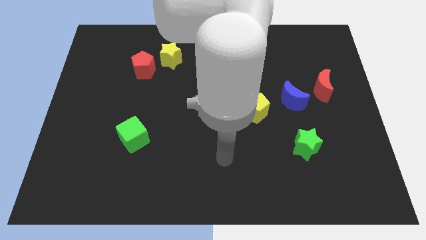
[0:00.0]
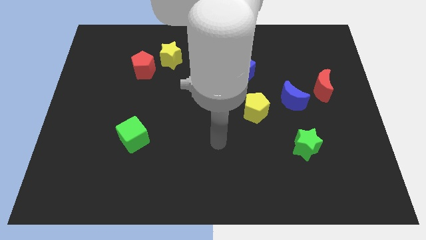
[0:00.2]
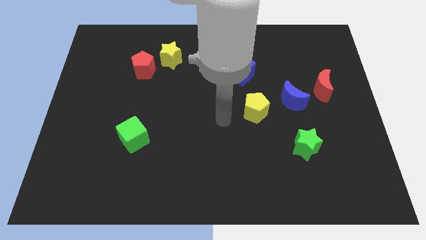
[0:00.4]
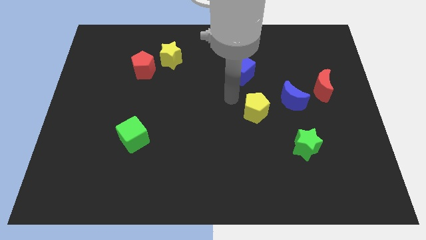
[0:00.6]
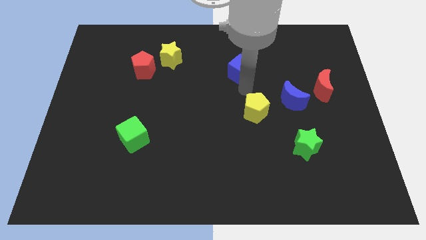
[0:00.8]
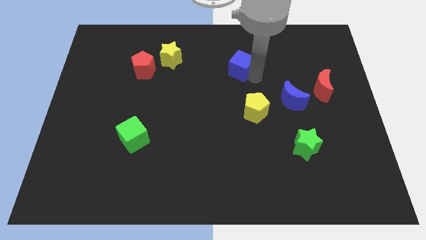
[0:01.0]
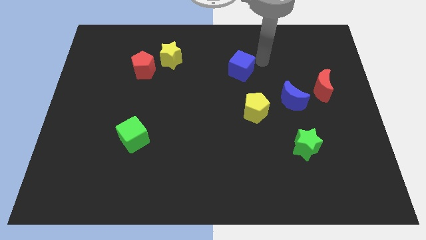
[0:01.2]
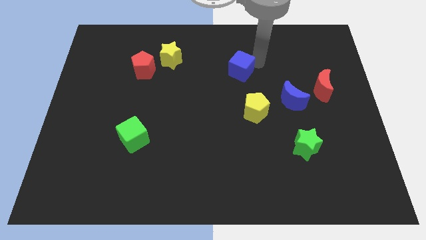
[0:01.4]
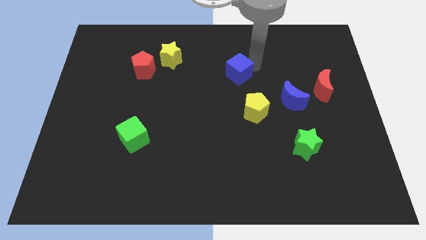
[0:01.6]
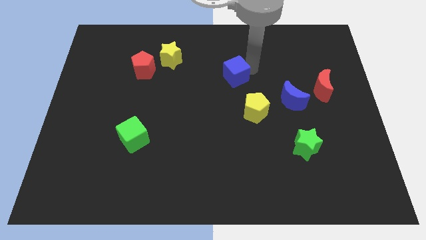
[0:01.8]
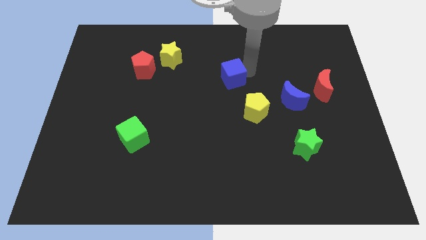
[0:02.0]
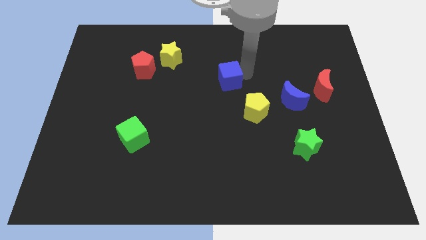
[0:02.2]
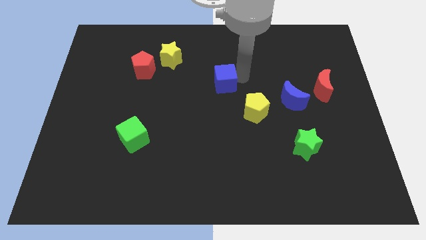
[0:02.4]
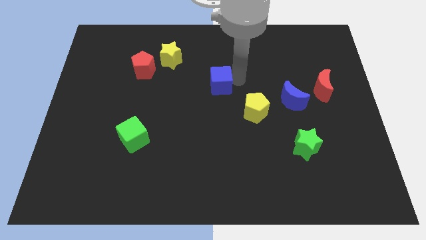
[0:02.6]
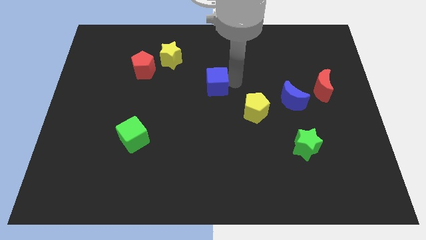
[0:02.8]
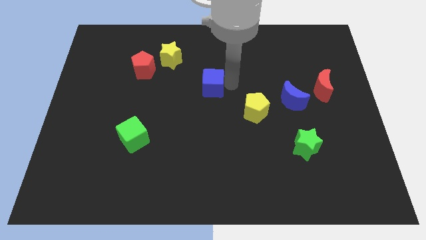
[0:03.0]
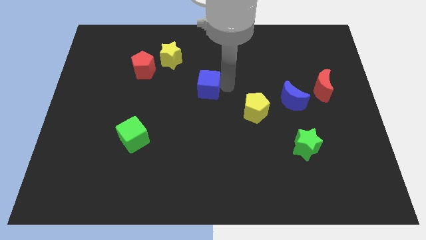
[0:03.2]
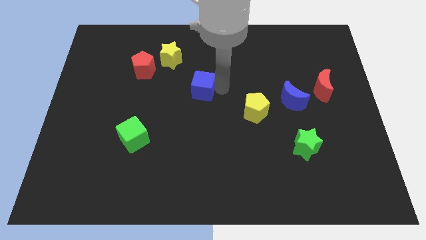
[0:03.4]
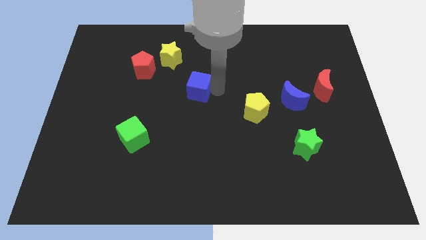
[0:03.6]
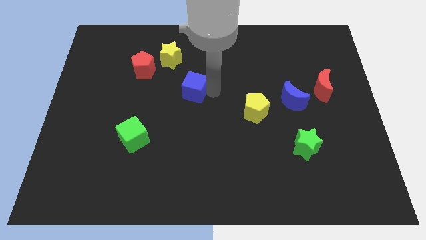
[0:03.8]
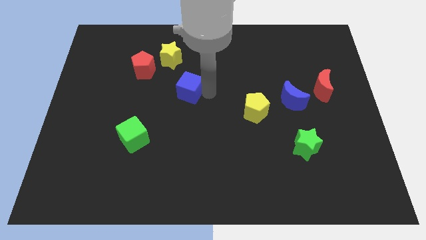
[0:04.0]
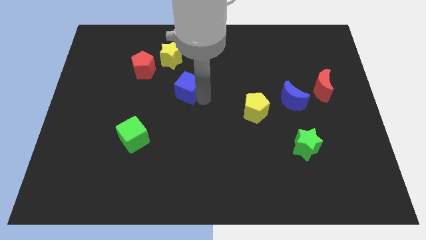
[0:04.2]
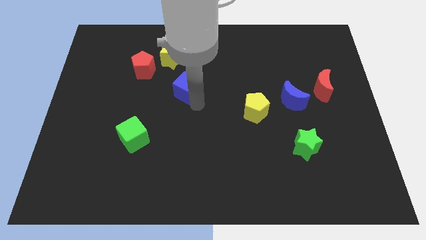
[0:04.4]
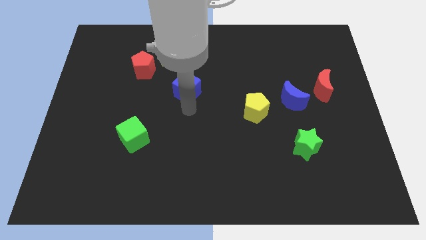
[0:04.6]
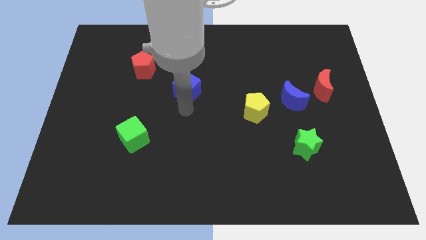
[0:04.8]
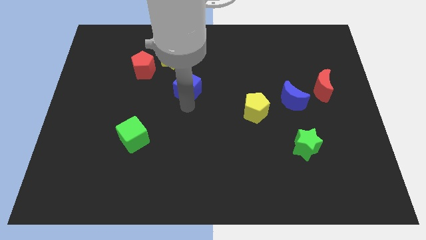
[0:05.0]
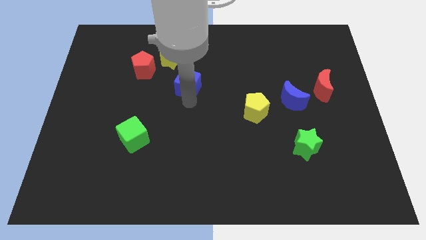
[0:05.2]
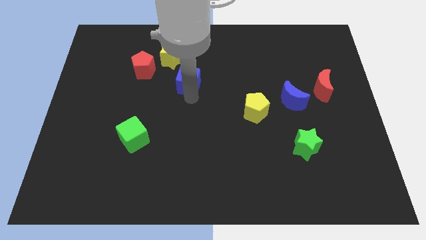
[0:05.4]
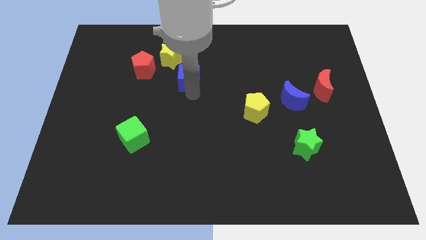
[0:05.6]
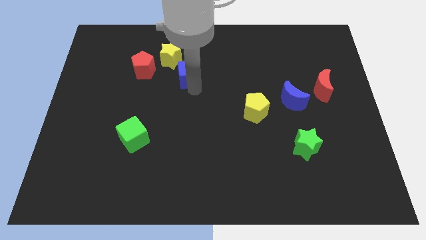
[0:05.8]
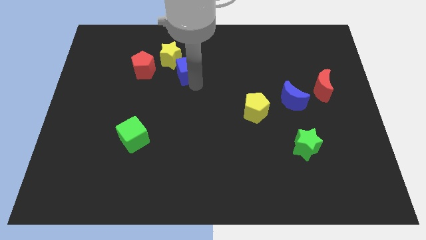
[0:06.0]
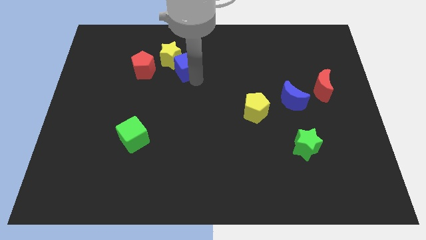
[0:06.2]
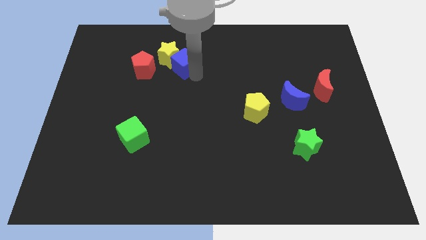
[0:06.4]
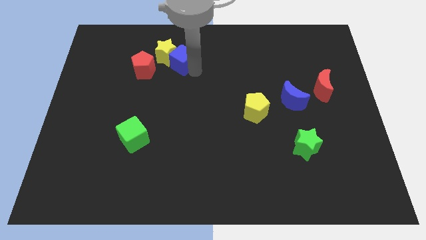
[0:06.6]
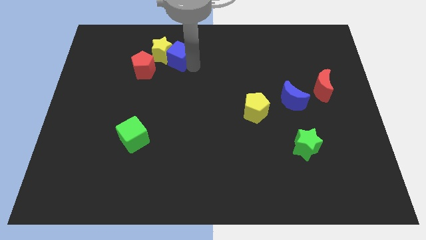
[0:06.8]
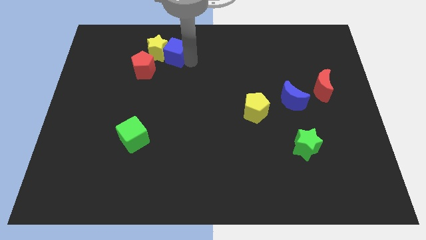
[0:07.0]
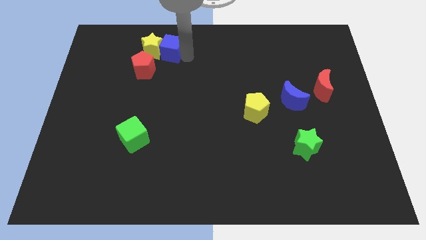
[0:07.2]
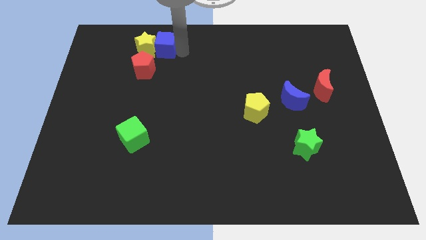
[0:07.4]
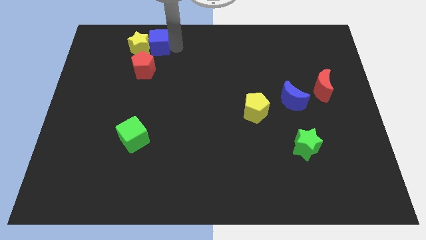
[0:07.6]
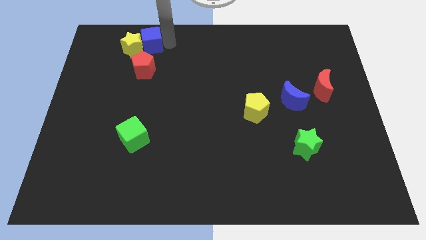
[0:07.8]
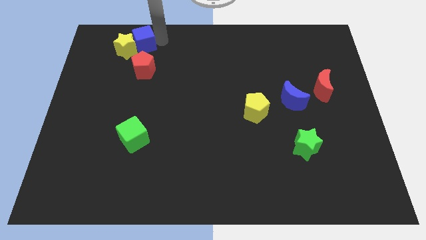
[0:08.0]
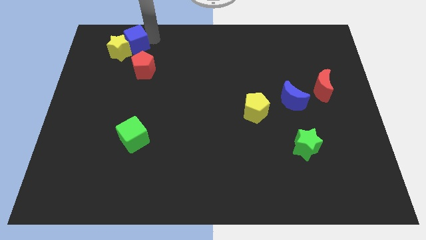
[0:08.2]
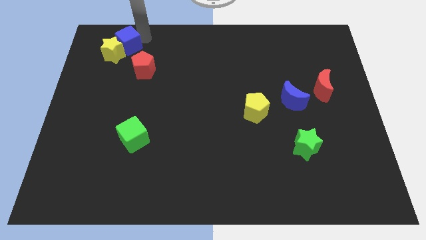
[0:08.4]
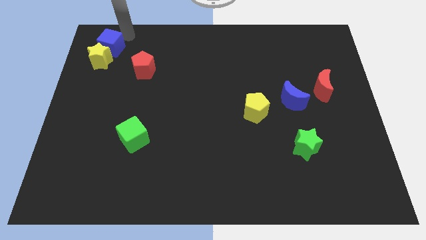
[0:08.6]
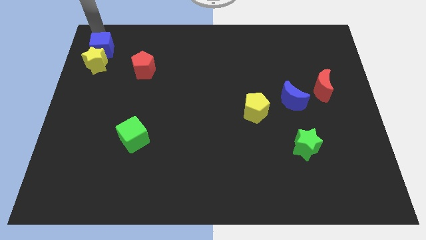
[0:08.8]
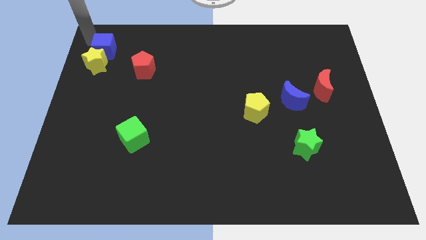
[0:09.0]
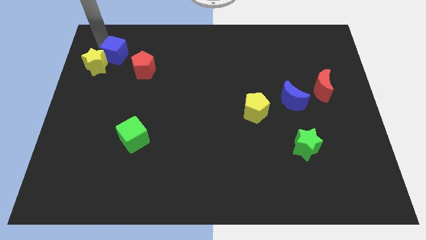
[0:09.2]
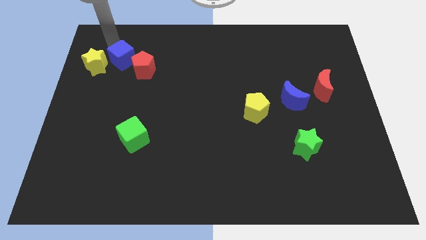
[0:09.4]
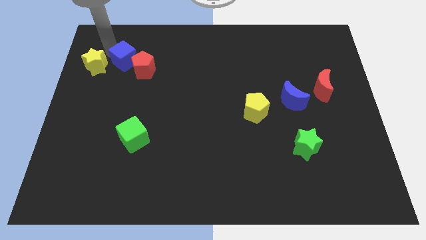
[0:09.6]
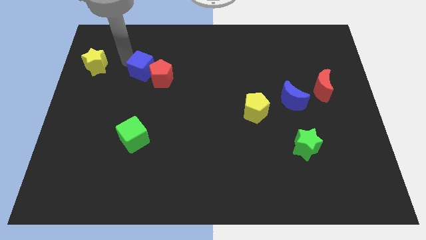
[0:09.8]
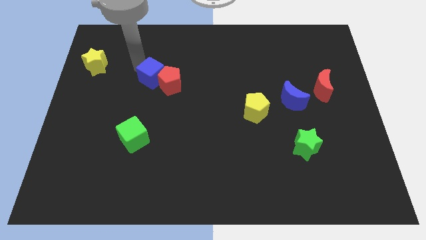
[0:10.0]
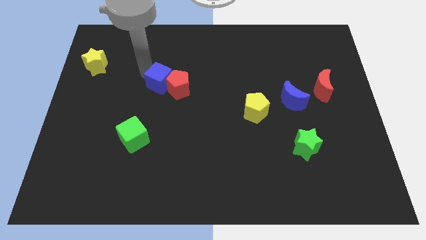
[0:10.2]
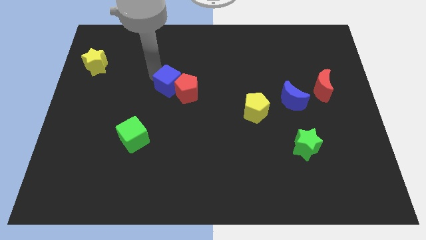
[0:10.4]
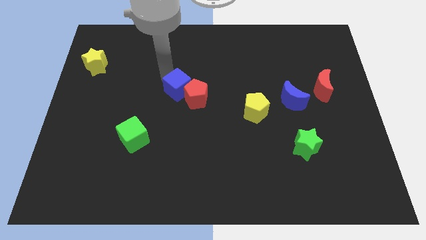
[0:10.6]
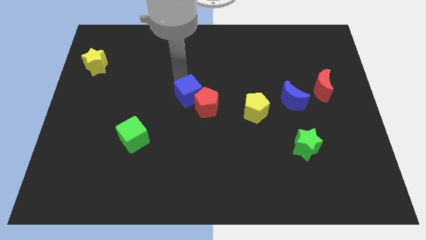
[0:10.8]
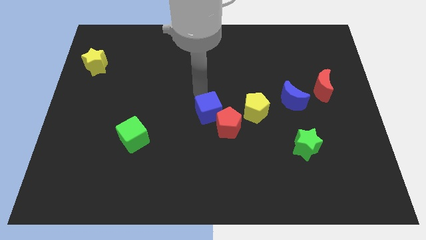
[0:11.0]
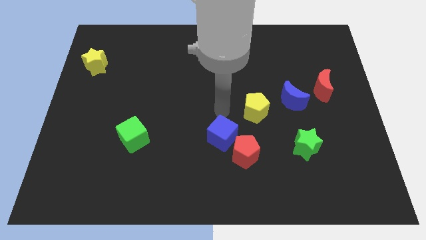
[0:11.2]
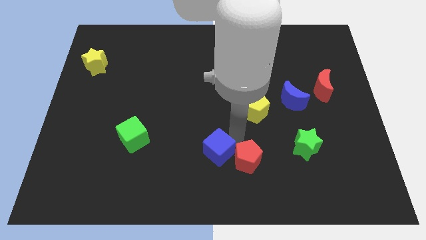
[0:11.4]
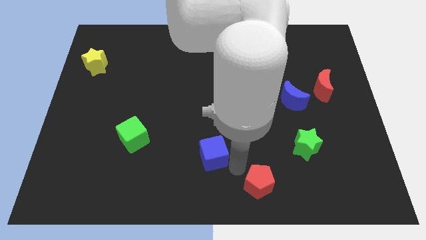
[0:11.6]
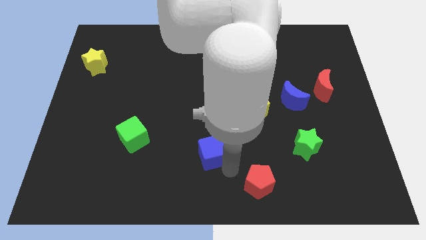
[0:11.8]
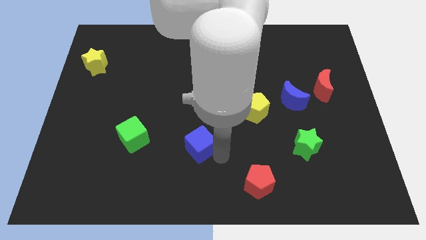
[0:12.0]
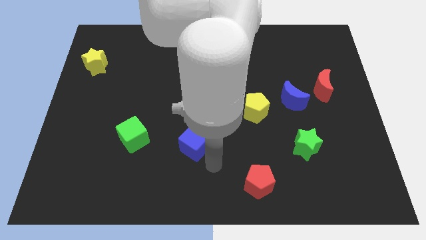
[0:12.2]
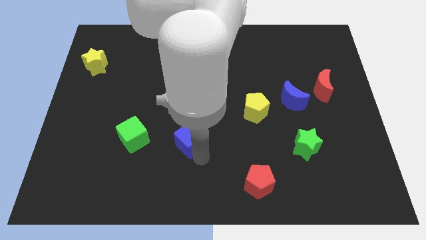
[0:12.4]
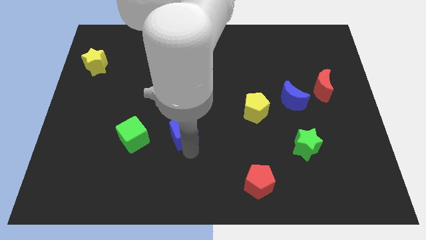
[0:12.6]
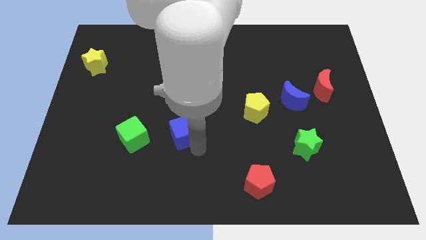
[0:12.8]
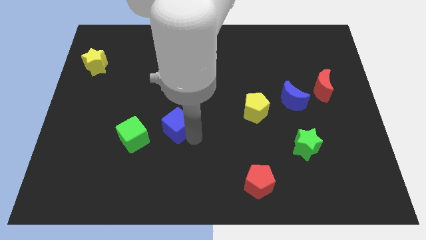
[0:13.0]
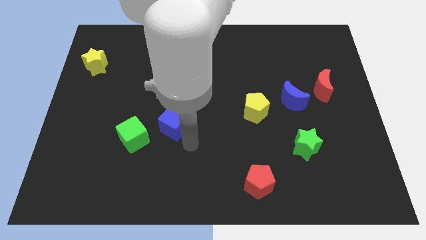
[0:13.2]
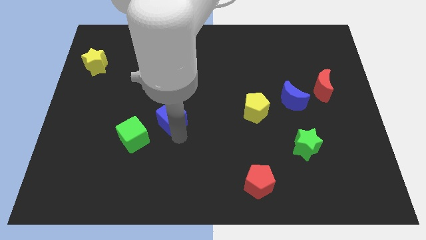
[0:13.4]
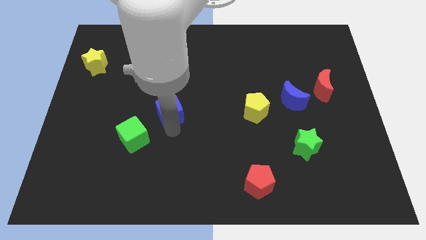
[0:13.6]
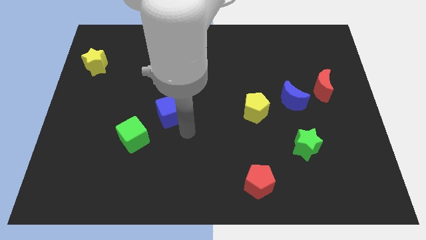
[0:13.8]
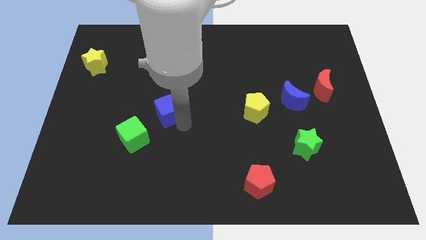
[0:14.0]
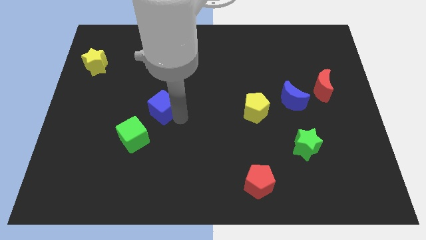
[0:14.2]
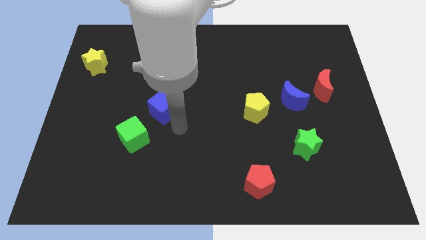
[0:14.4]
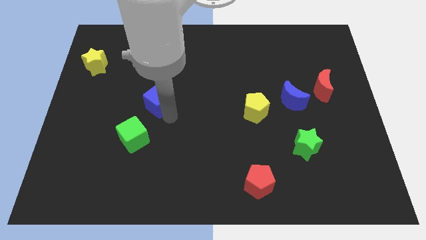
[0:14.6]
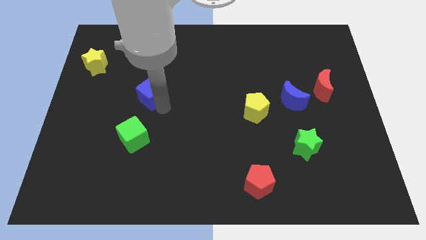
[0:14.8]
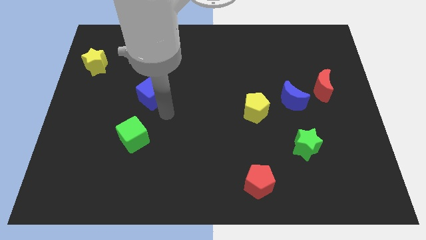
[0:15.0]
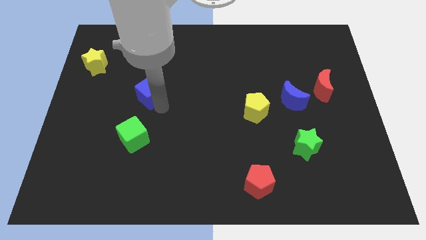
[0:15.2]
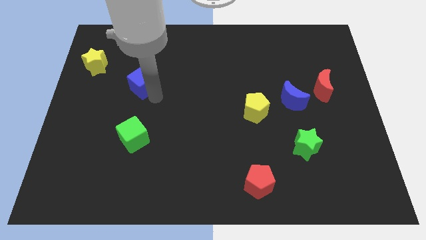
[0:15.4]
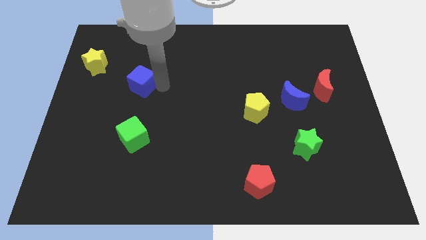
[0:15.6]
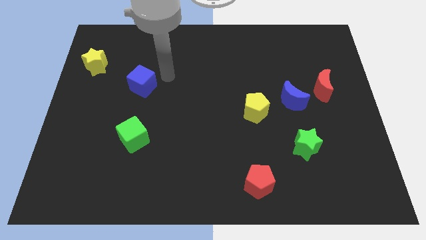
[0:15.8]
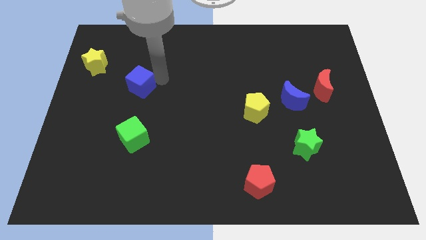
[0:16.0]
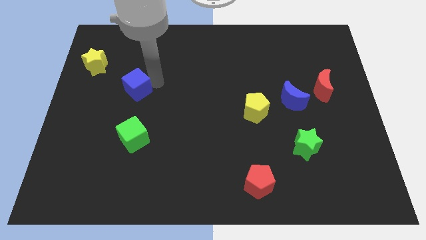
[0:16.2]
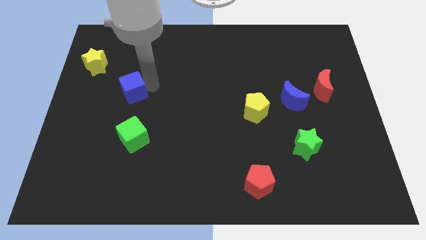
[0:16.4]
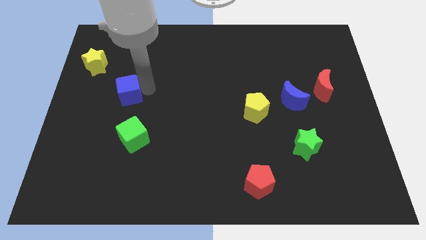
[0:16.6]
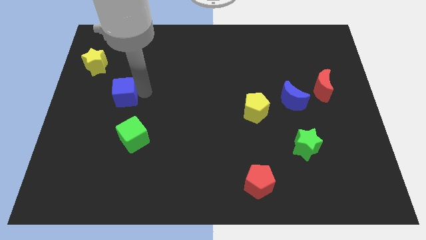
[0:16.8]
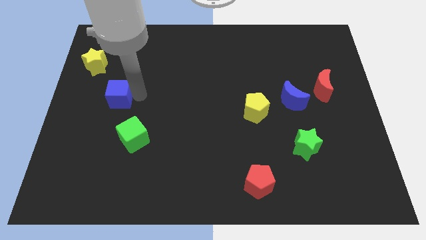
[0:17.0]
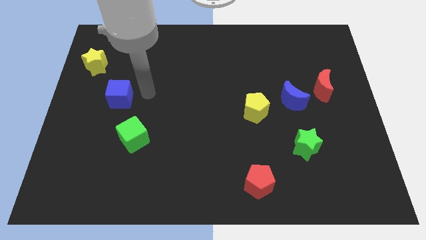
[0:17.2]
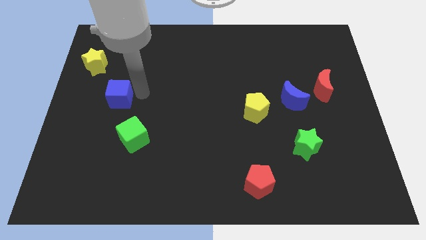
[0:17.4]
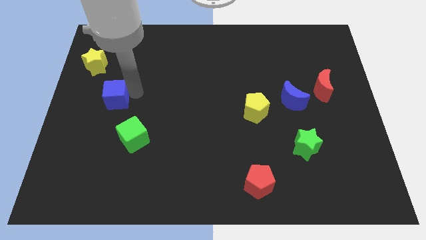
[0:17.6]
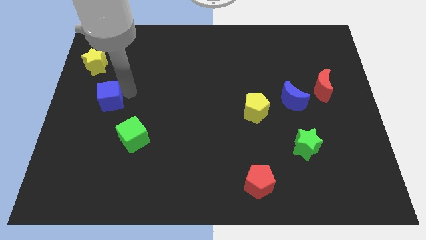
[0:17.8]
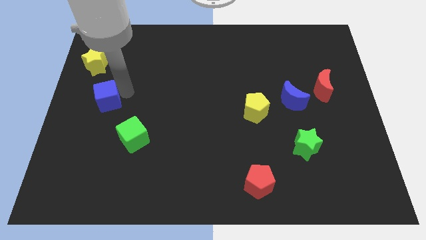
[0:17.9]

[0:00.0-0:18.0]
slide the blue cube to the center left
